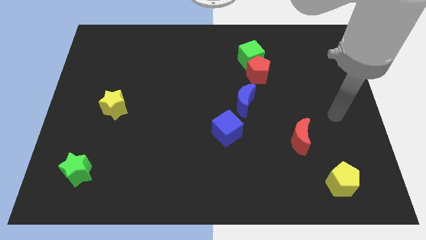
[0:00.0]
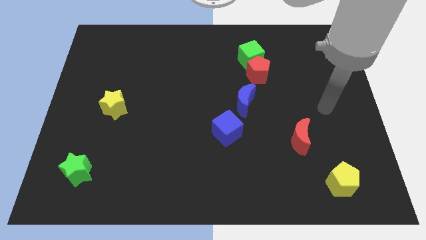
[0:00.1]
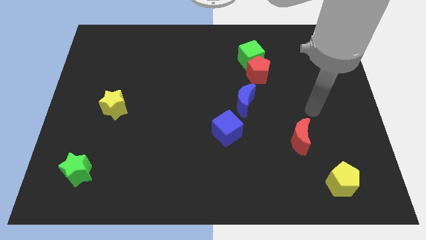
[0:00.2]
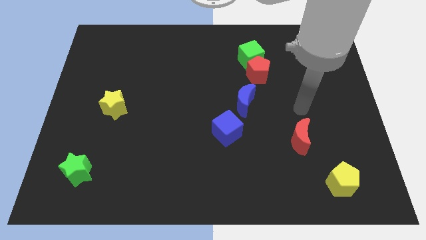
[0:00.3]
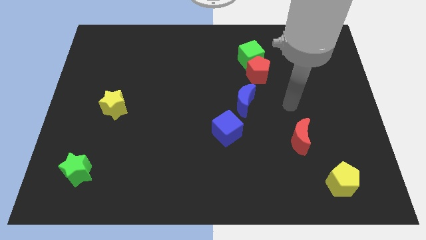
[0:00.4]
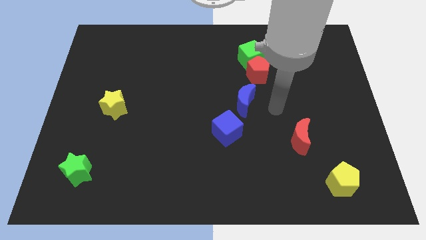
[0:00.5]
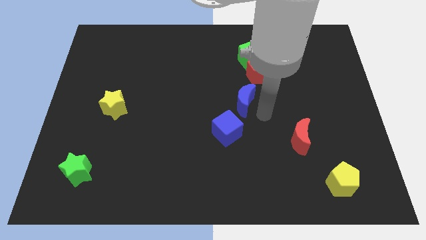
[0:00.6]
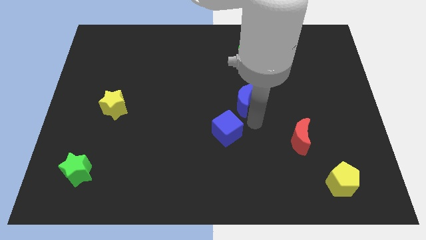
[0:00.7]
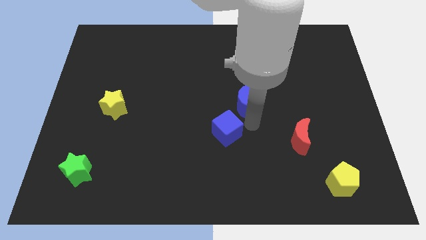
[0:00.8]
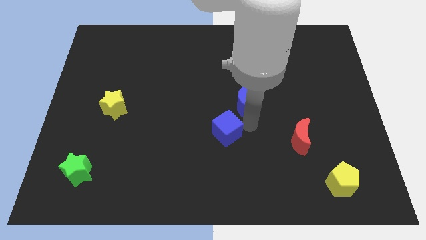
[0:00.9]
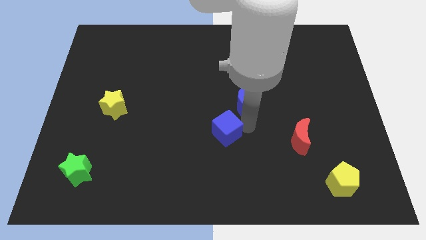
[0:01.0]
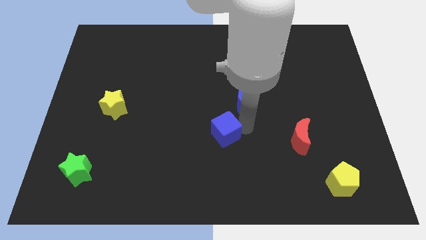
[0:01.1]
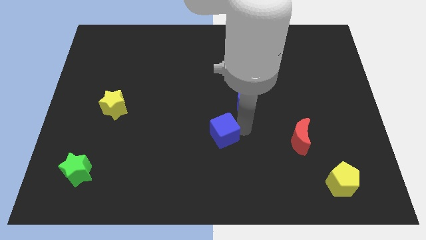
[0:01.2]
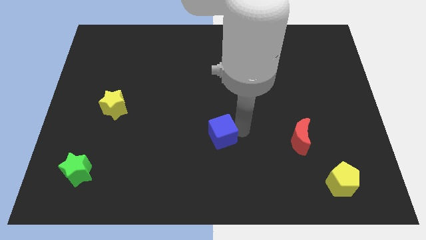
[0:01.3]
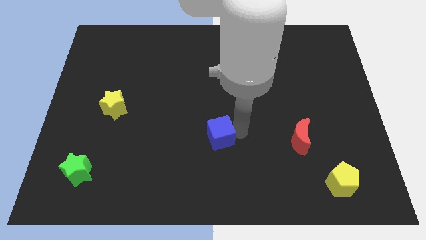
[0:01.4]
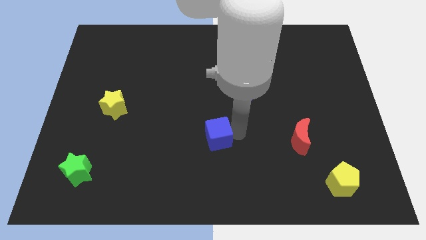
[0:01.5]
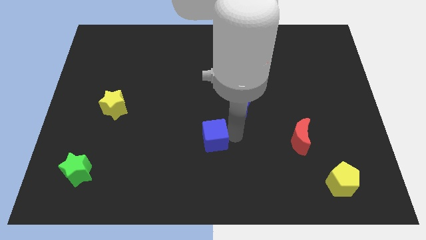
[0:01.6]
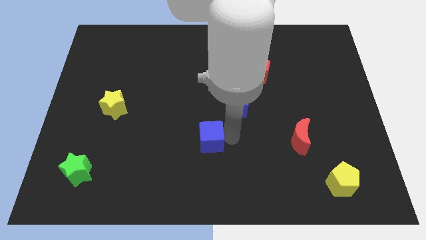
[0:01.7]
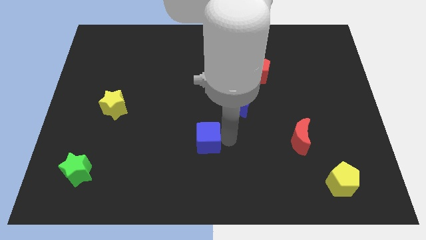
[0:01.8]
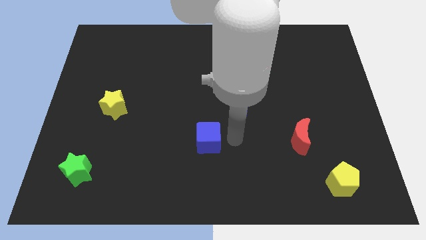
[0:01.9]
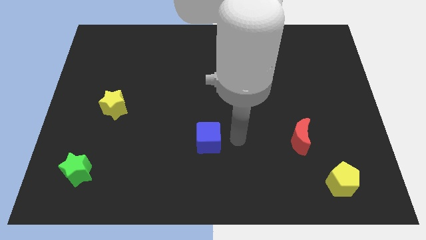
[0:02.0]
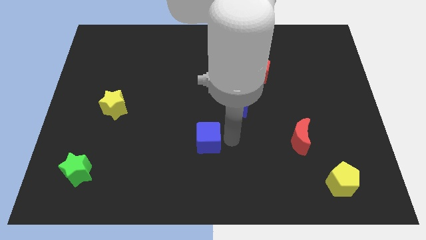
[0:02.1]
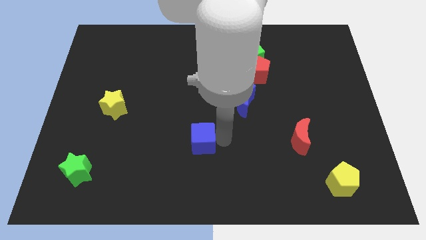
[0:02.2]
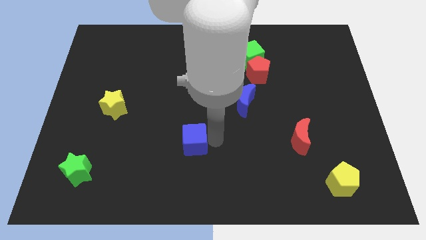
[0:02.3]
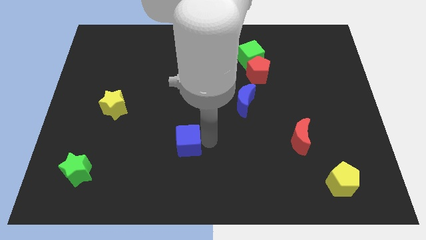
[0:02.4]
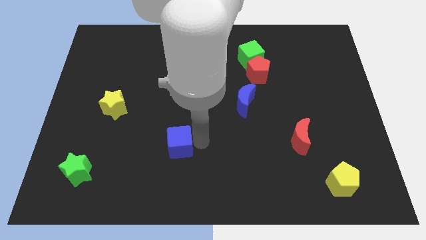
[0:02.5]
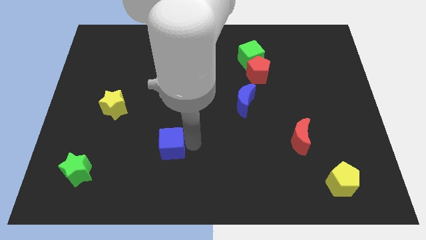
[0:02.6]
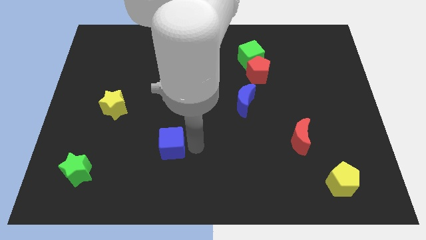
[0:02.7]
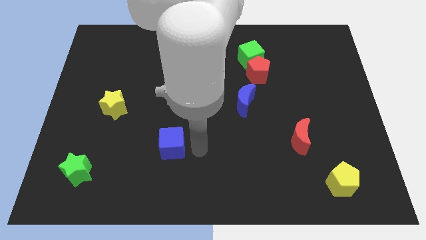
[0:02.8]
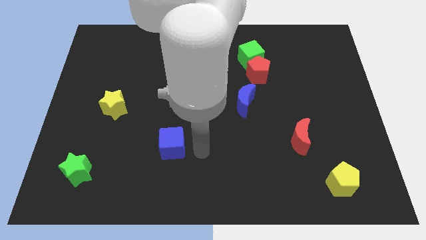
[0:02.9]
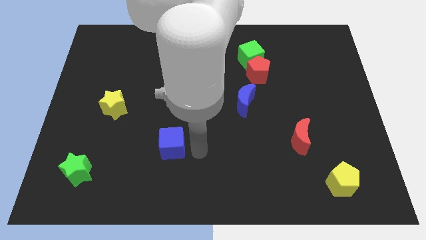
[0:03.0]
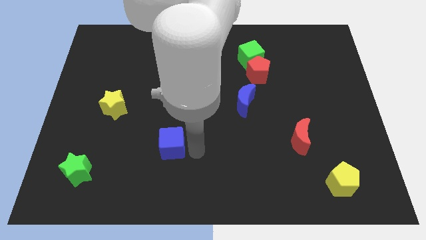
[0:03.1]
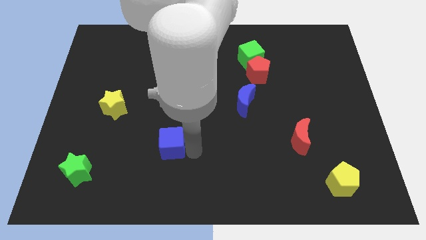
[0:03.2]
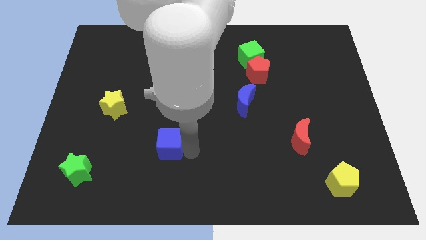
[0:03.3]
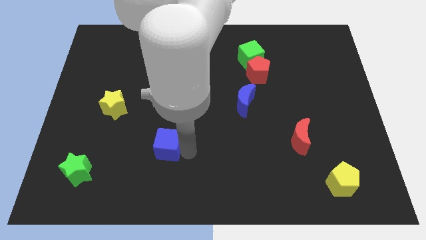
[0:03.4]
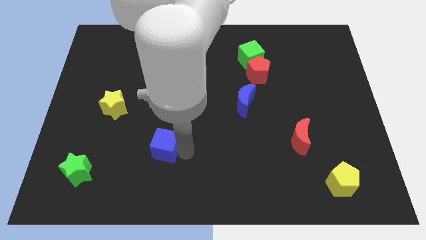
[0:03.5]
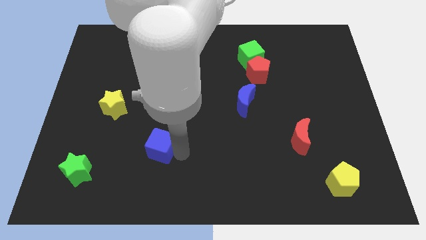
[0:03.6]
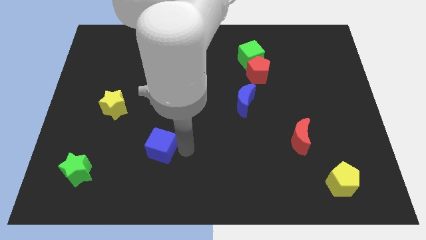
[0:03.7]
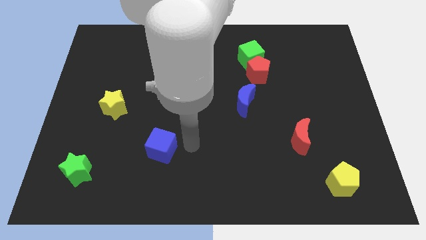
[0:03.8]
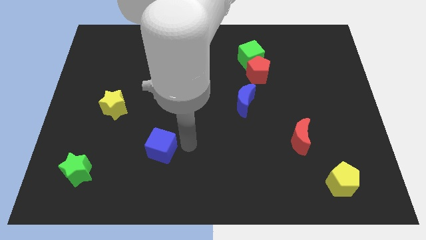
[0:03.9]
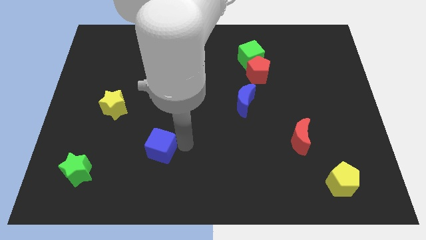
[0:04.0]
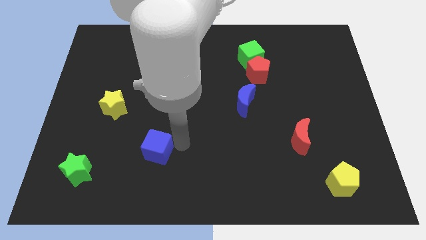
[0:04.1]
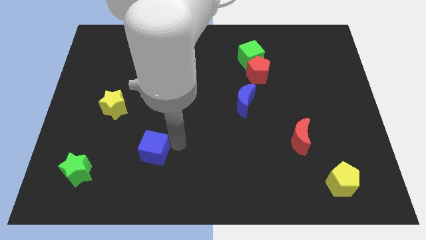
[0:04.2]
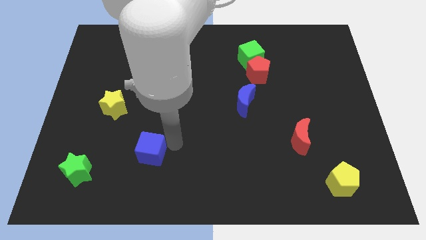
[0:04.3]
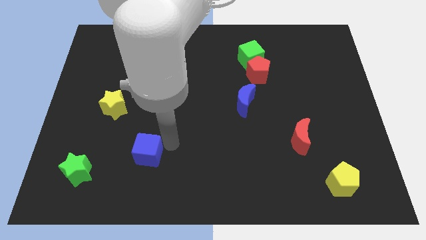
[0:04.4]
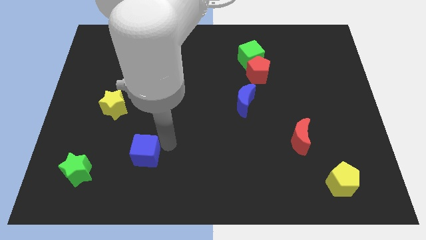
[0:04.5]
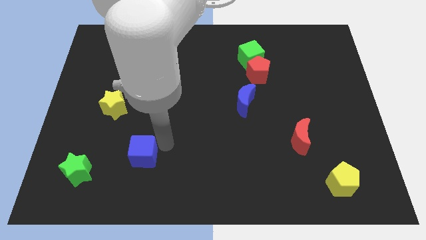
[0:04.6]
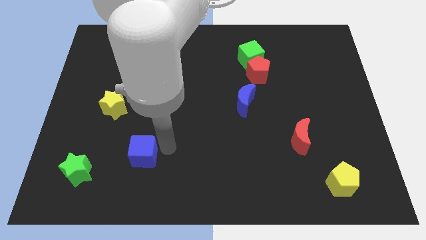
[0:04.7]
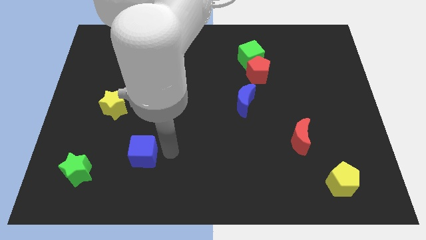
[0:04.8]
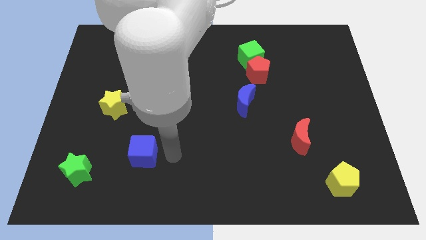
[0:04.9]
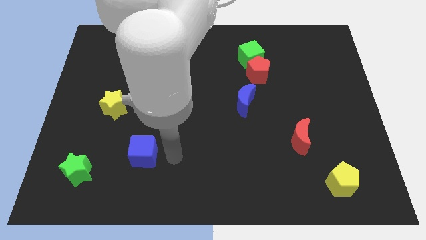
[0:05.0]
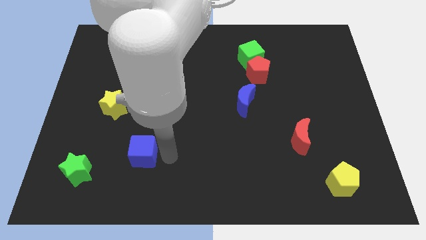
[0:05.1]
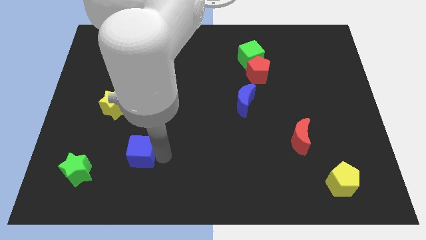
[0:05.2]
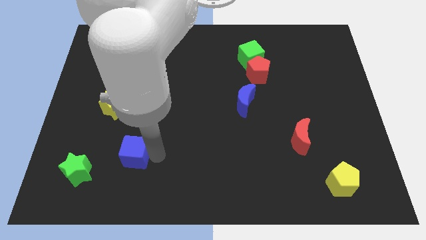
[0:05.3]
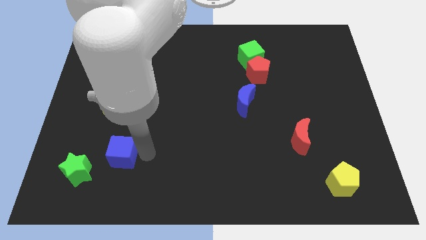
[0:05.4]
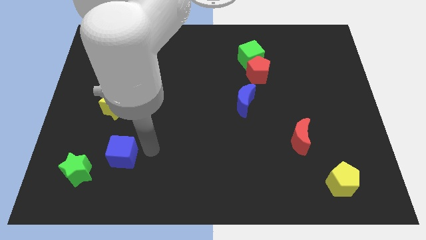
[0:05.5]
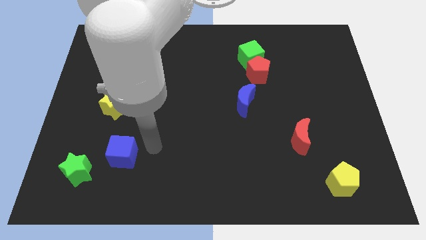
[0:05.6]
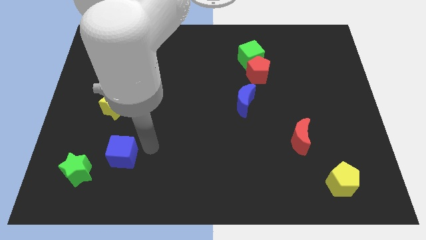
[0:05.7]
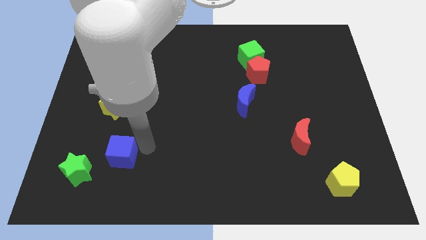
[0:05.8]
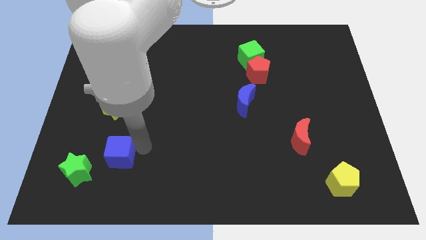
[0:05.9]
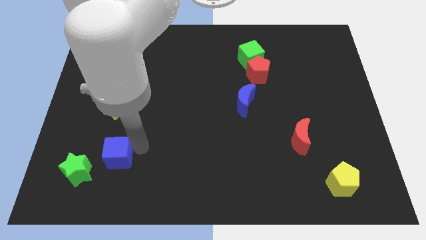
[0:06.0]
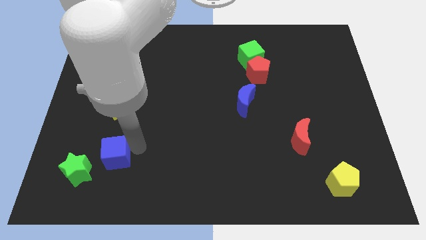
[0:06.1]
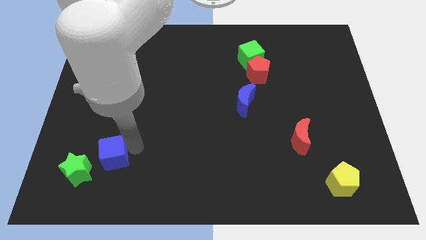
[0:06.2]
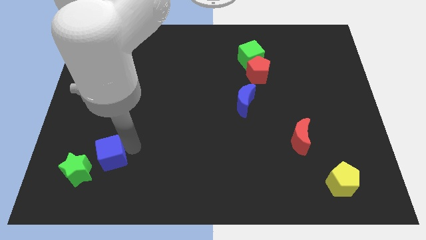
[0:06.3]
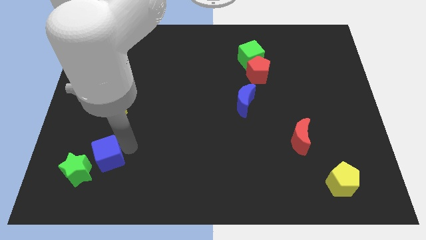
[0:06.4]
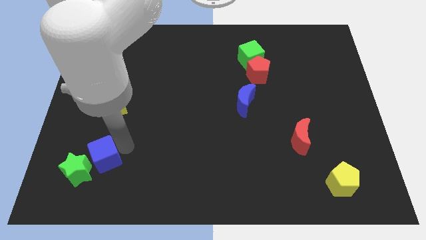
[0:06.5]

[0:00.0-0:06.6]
push the blue cube next to the green star

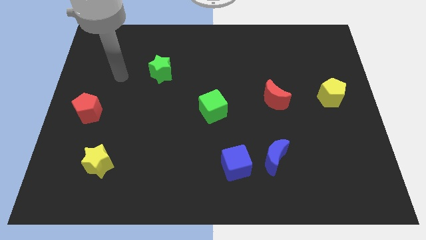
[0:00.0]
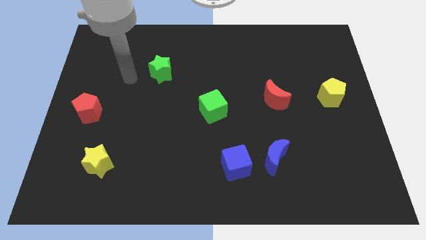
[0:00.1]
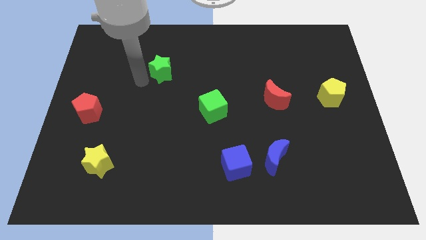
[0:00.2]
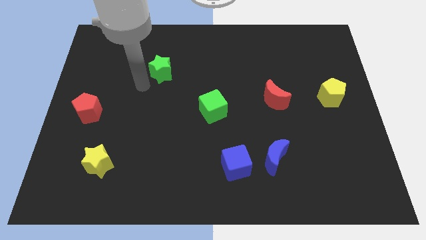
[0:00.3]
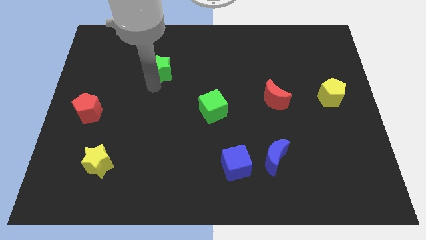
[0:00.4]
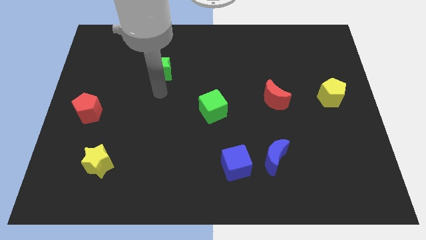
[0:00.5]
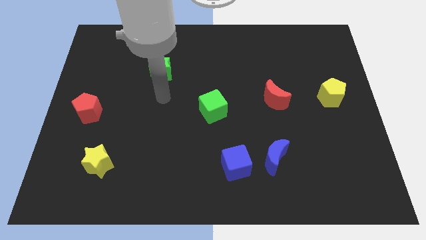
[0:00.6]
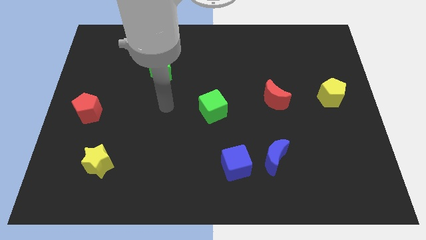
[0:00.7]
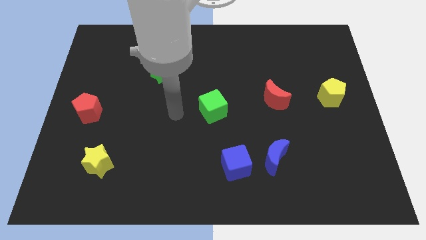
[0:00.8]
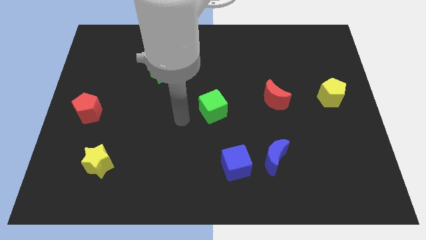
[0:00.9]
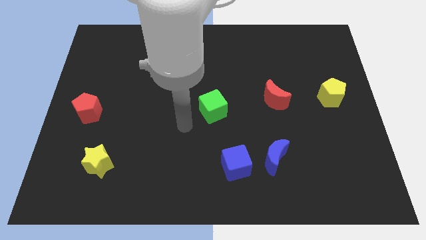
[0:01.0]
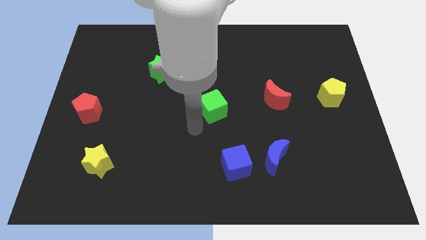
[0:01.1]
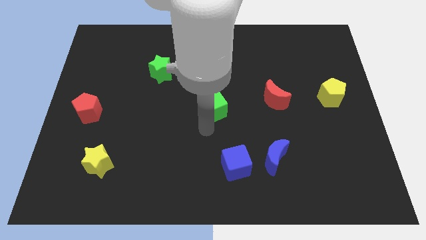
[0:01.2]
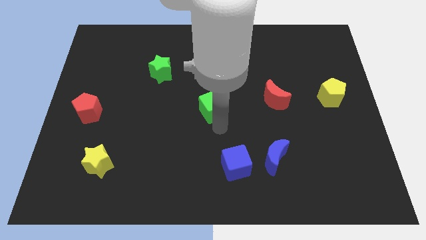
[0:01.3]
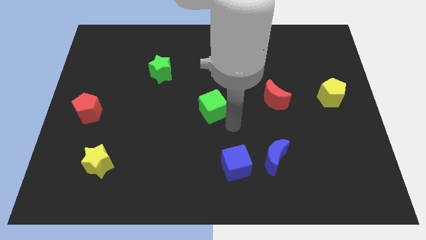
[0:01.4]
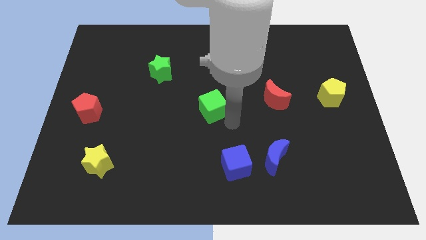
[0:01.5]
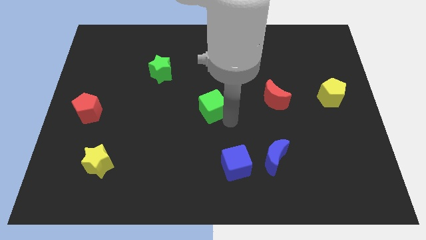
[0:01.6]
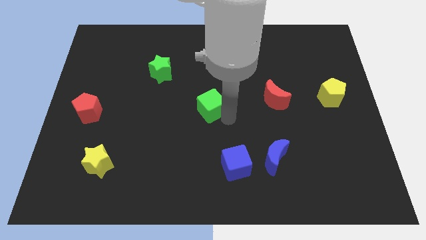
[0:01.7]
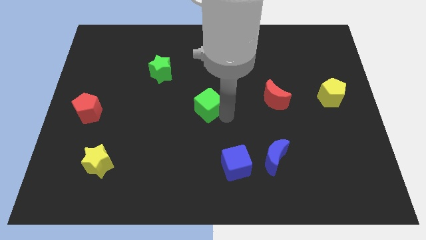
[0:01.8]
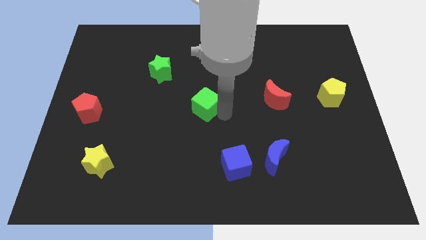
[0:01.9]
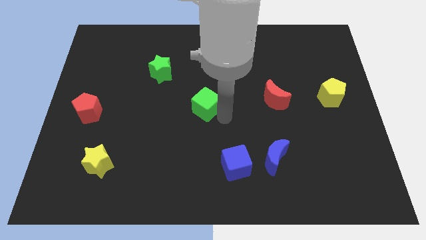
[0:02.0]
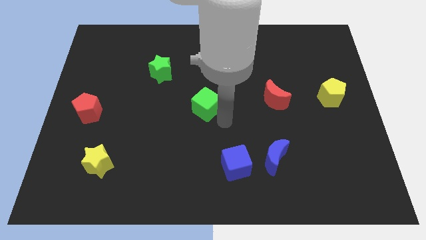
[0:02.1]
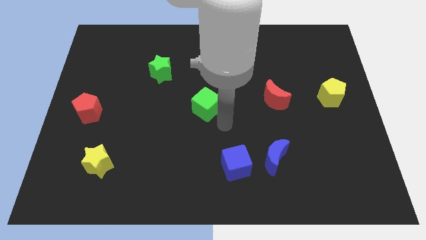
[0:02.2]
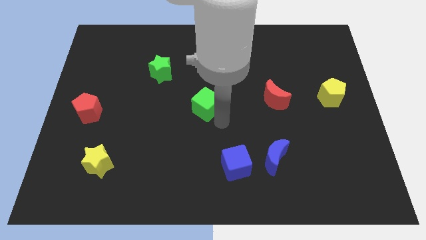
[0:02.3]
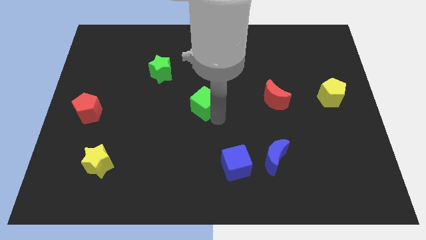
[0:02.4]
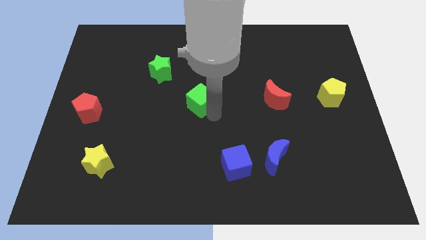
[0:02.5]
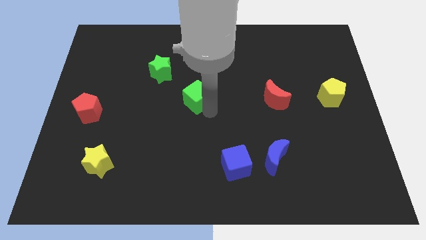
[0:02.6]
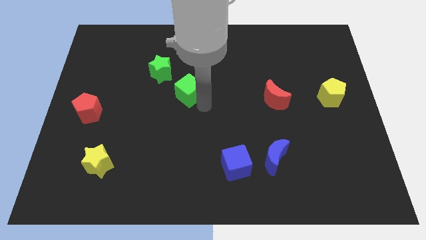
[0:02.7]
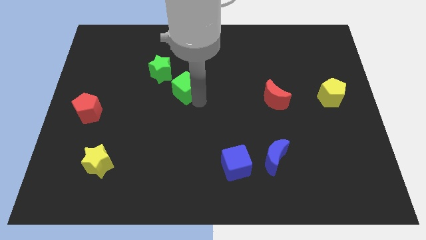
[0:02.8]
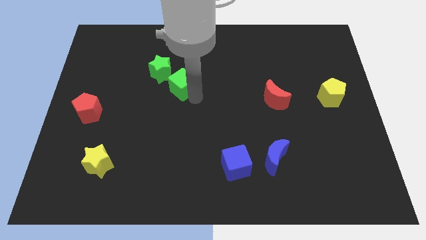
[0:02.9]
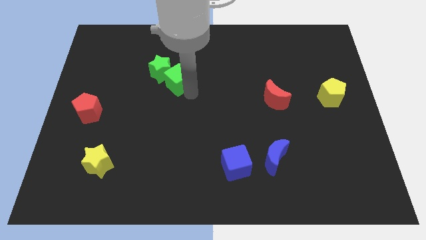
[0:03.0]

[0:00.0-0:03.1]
move the green cube to the green star
